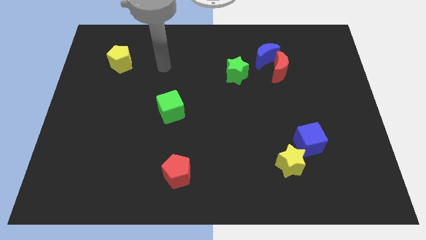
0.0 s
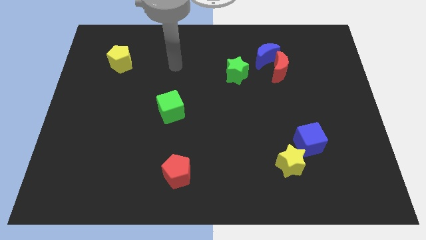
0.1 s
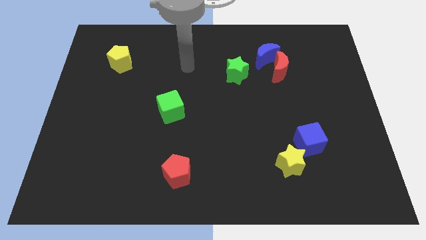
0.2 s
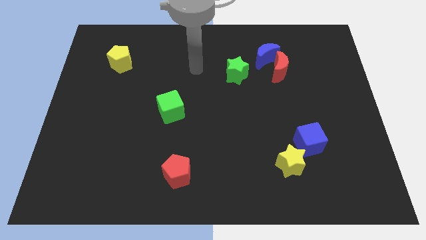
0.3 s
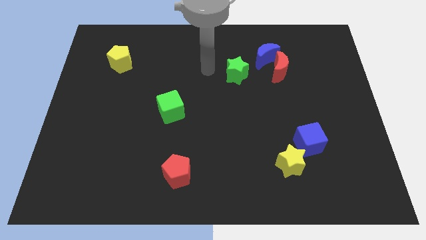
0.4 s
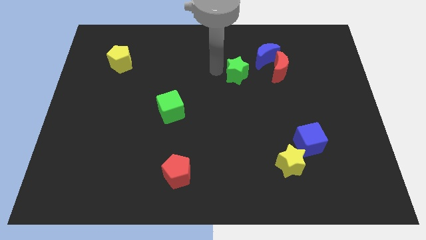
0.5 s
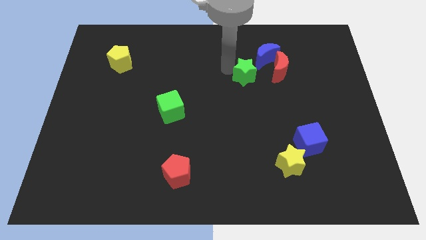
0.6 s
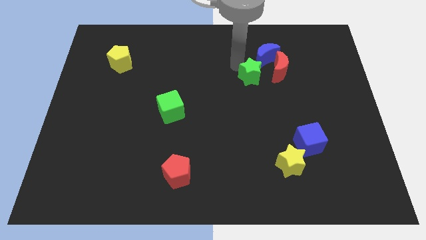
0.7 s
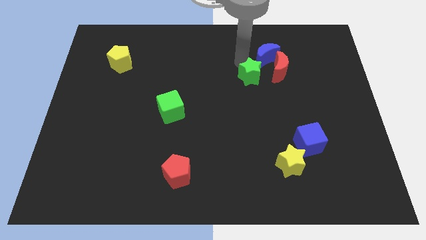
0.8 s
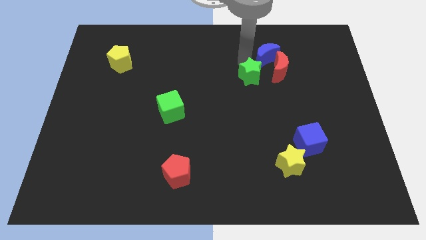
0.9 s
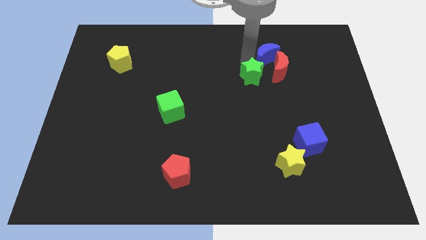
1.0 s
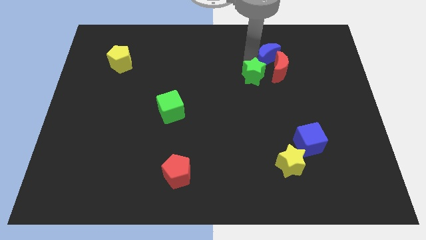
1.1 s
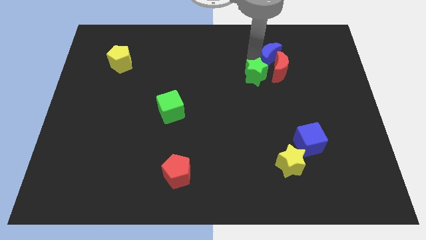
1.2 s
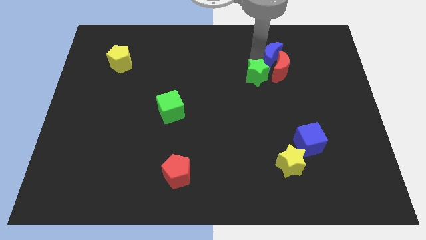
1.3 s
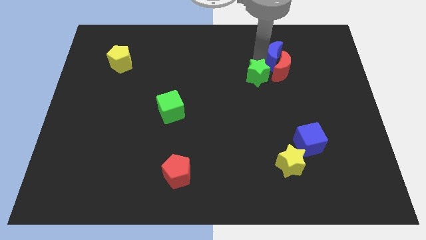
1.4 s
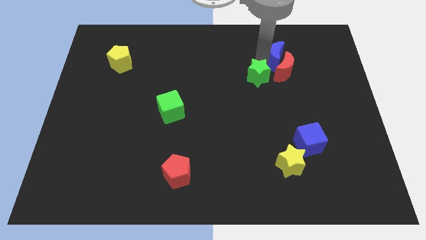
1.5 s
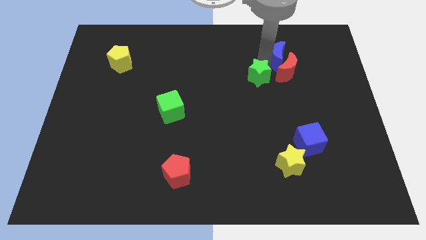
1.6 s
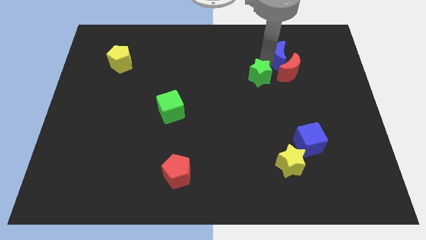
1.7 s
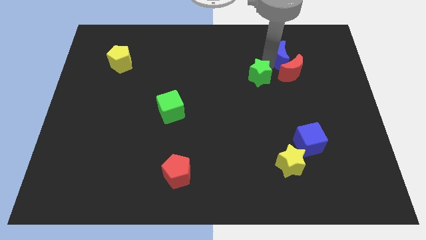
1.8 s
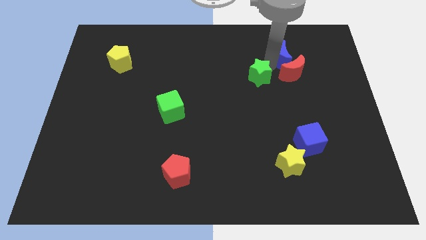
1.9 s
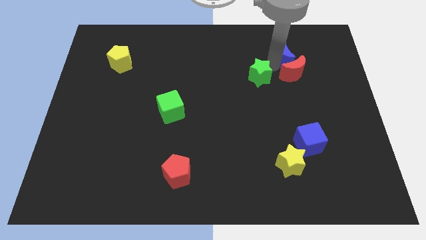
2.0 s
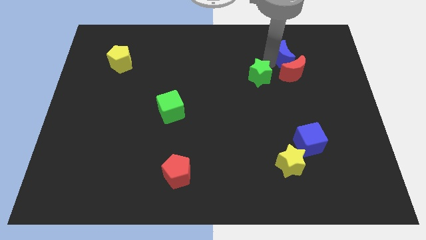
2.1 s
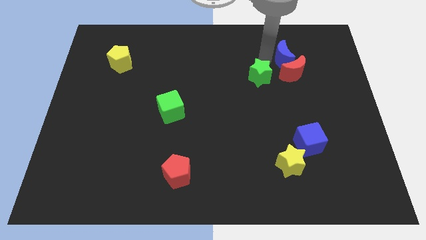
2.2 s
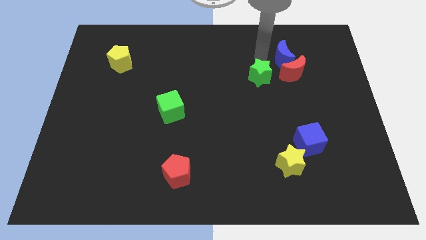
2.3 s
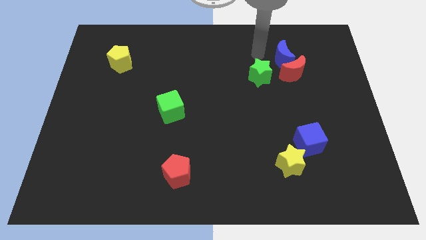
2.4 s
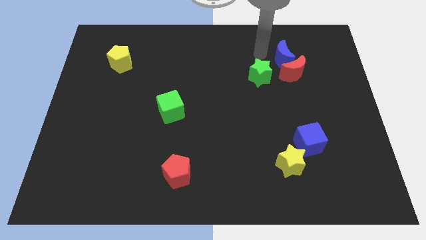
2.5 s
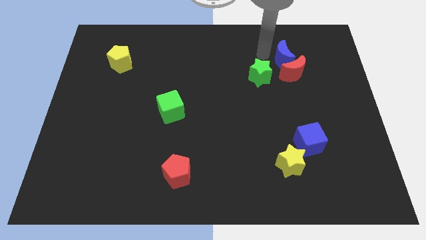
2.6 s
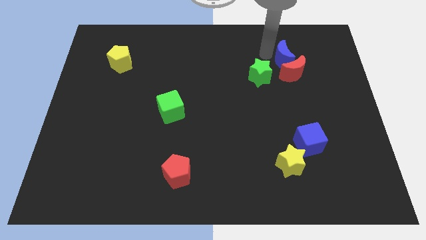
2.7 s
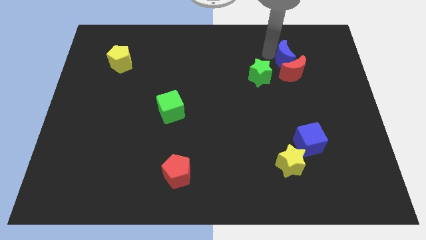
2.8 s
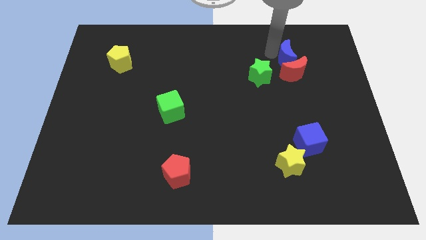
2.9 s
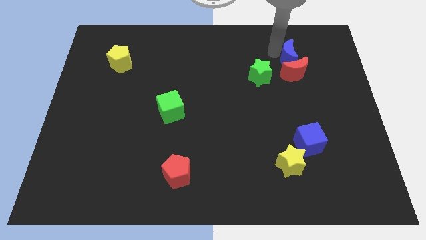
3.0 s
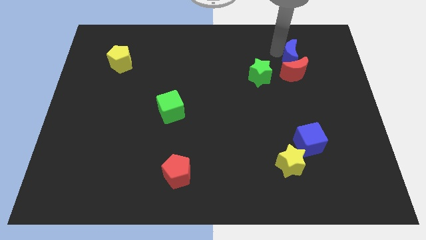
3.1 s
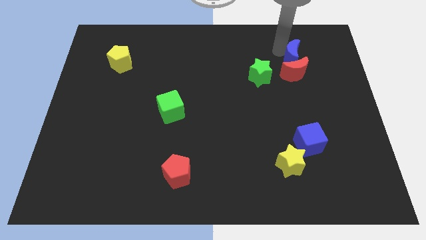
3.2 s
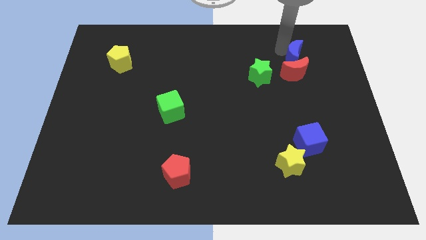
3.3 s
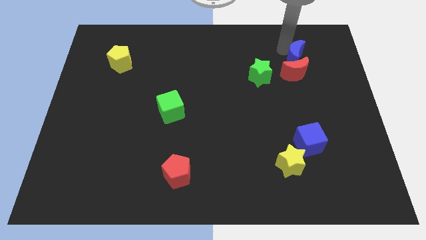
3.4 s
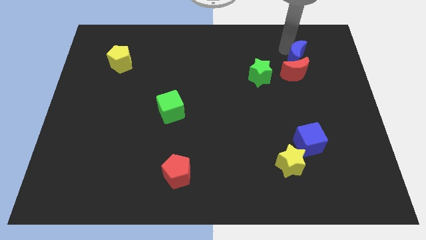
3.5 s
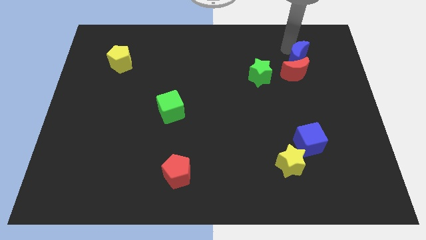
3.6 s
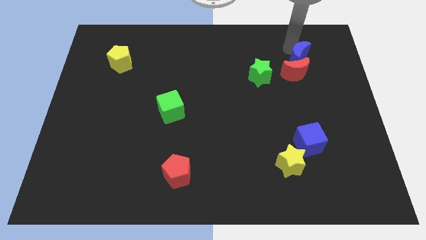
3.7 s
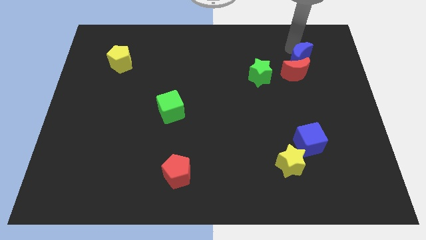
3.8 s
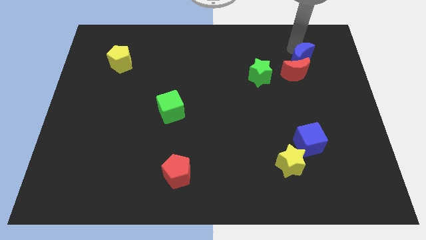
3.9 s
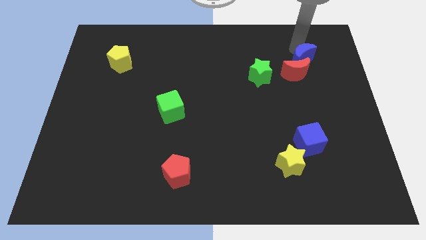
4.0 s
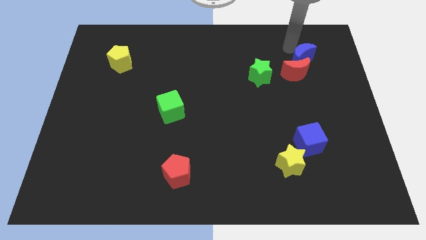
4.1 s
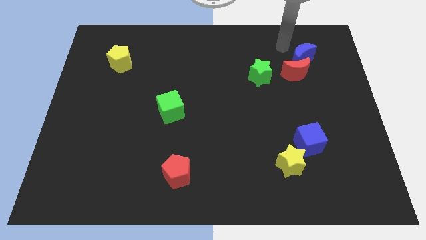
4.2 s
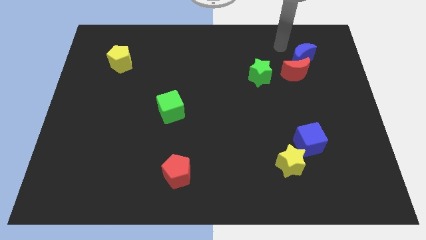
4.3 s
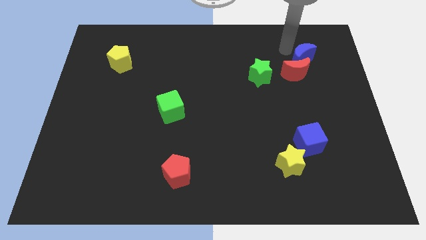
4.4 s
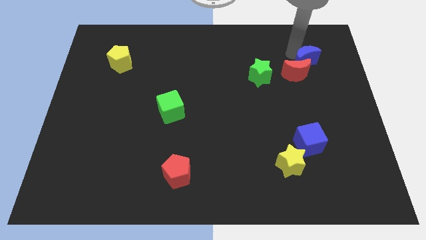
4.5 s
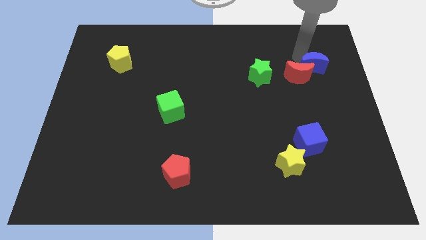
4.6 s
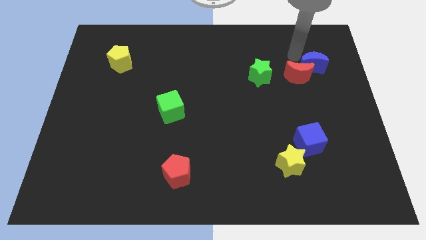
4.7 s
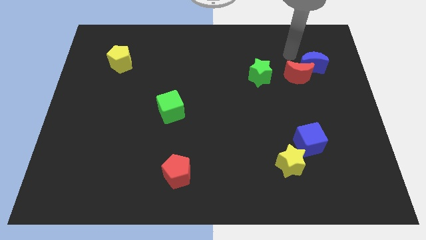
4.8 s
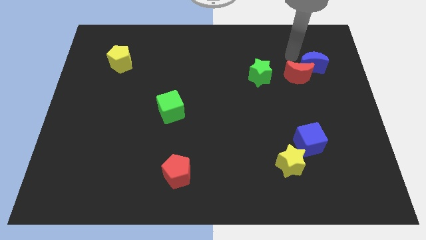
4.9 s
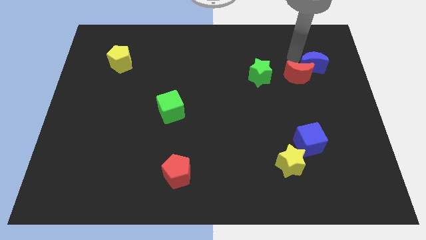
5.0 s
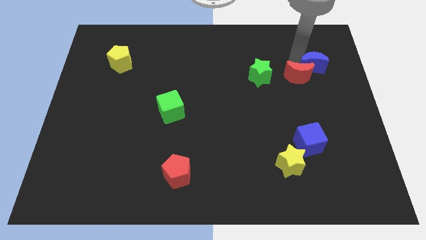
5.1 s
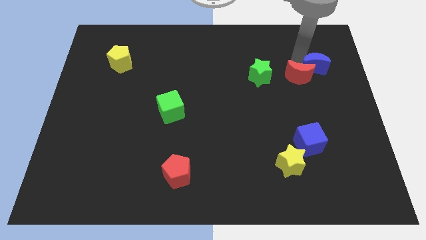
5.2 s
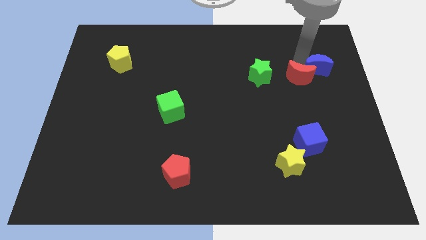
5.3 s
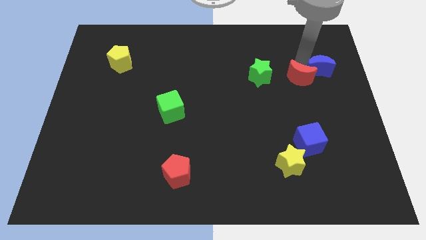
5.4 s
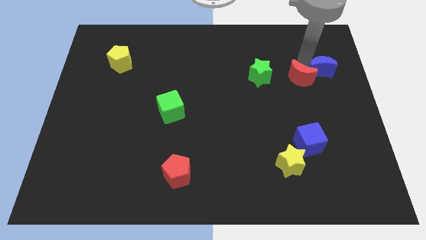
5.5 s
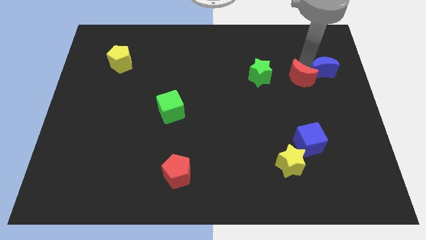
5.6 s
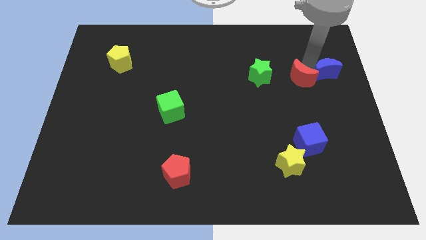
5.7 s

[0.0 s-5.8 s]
put the blue moon to the center right
